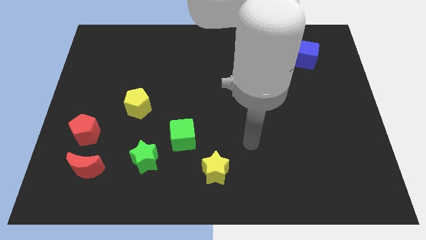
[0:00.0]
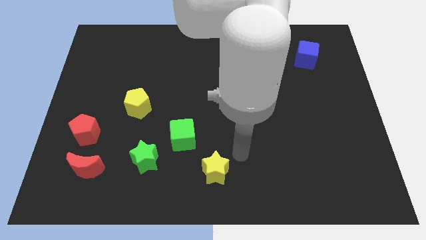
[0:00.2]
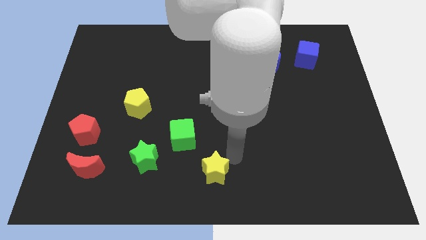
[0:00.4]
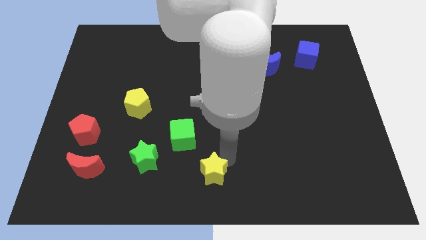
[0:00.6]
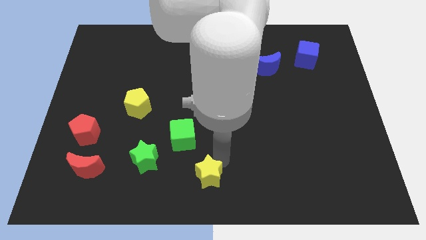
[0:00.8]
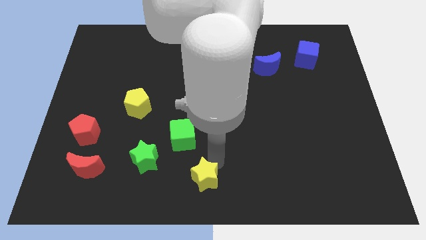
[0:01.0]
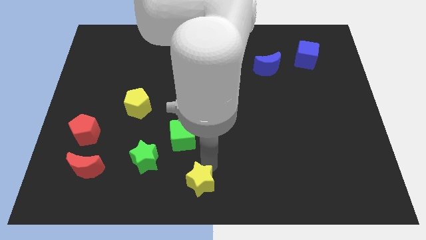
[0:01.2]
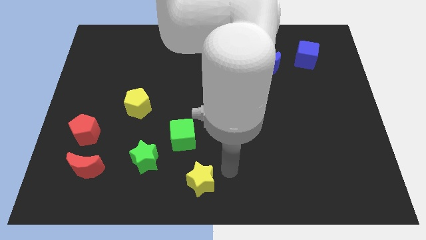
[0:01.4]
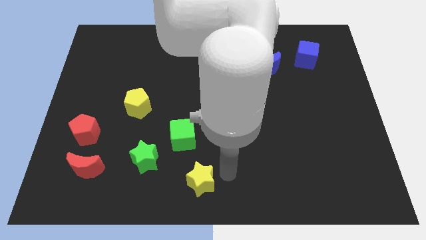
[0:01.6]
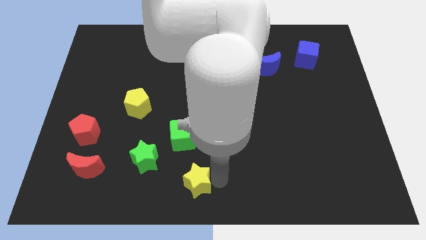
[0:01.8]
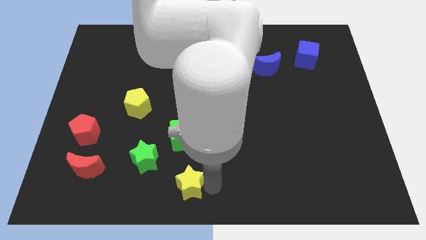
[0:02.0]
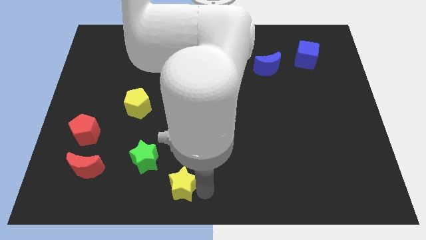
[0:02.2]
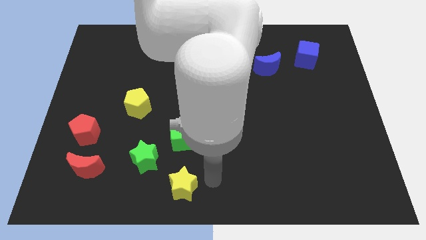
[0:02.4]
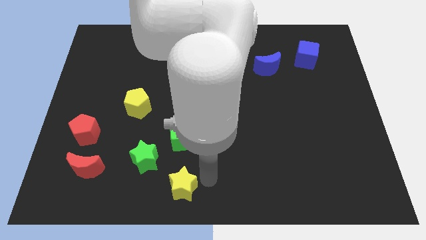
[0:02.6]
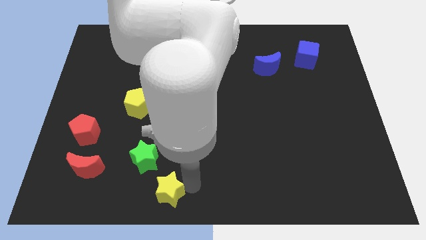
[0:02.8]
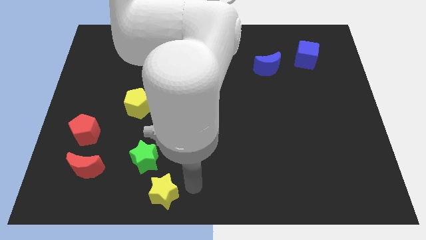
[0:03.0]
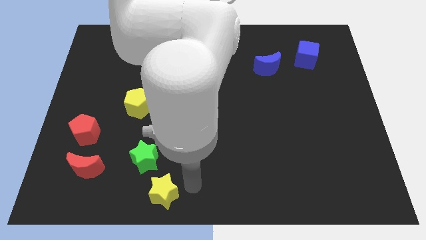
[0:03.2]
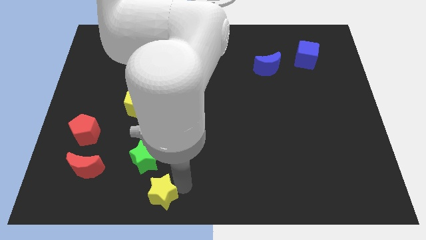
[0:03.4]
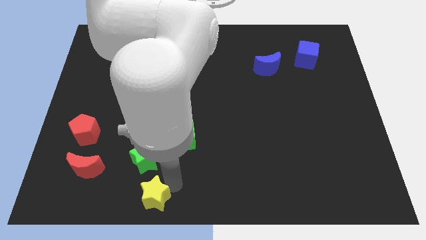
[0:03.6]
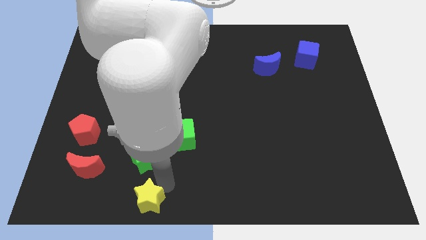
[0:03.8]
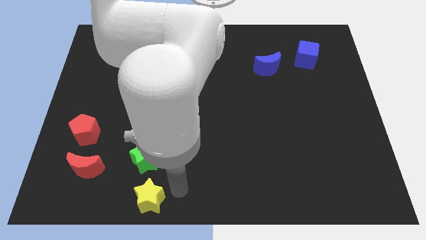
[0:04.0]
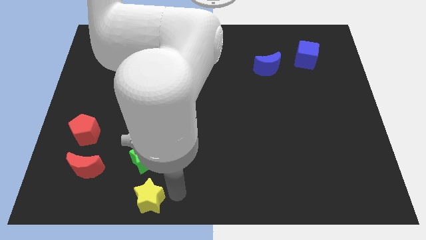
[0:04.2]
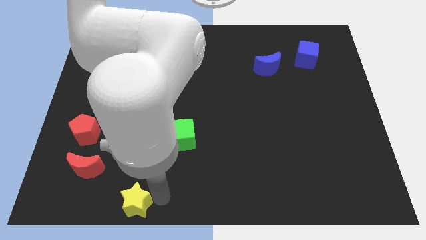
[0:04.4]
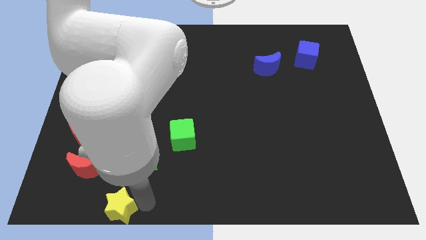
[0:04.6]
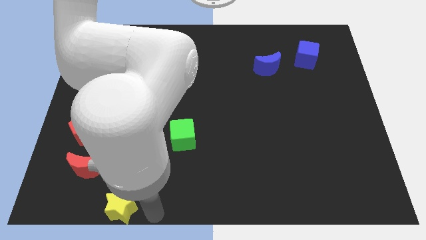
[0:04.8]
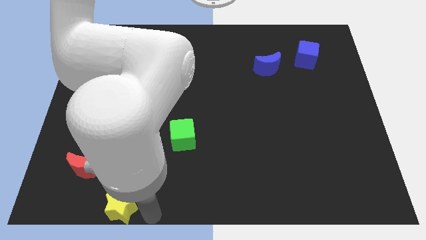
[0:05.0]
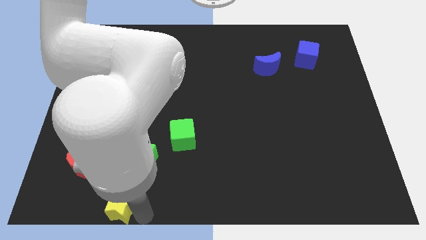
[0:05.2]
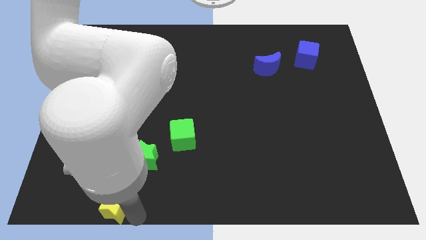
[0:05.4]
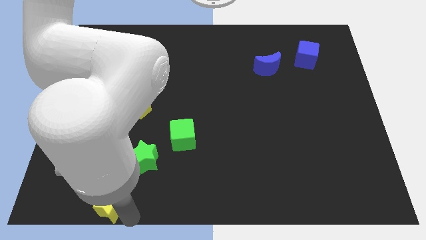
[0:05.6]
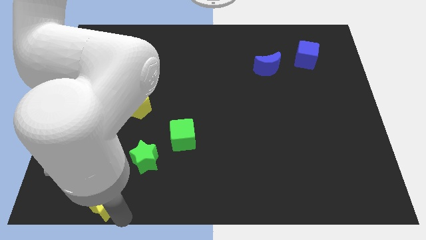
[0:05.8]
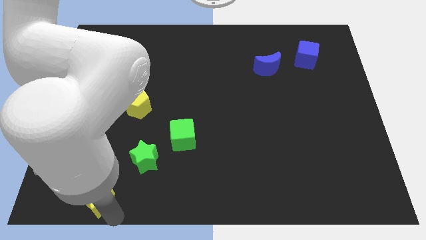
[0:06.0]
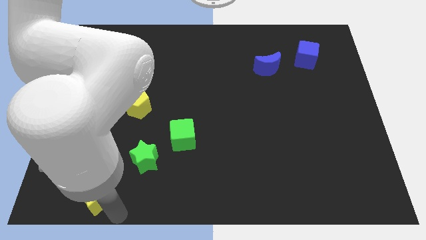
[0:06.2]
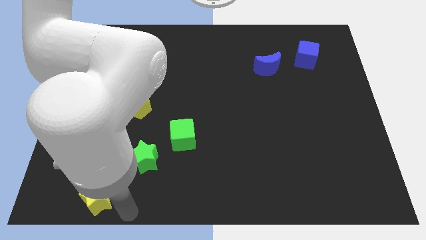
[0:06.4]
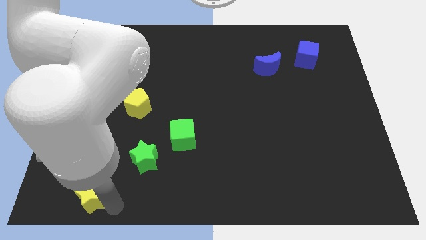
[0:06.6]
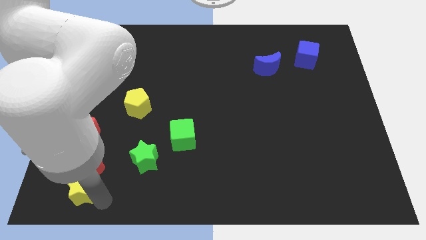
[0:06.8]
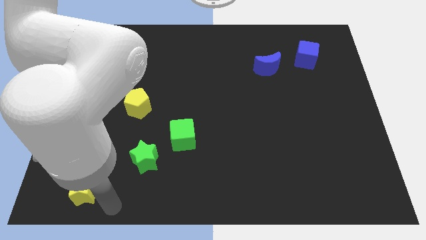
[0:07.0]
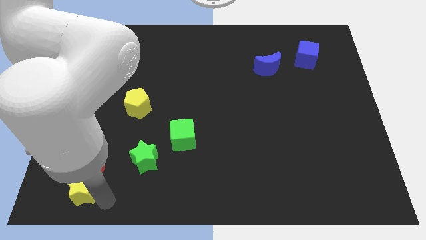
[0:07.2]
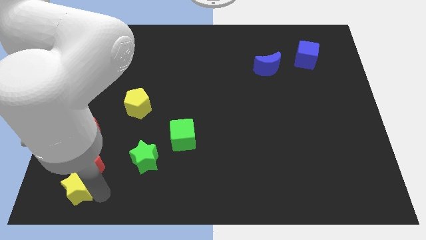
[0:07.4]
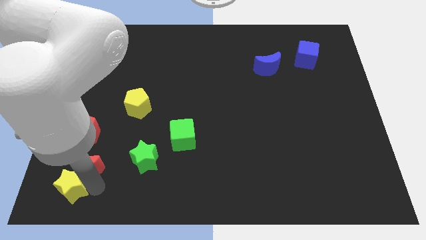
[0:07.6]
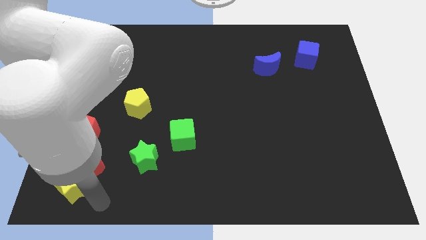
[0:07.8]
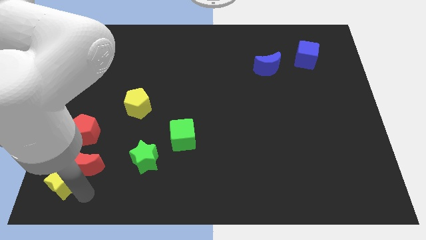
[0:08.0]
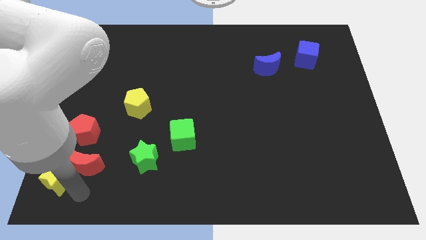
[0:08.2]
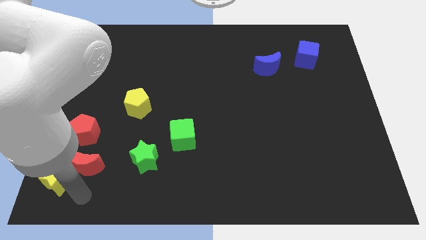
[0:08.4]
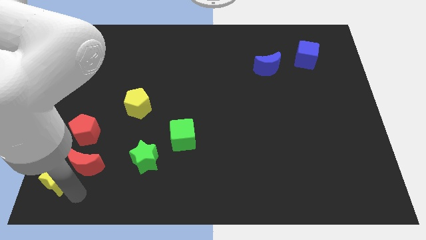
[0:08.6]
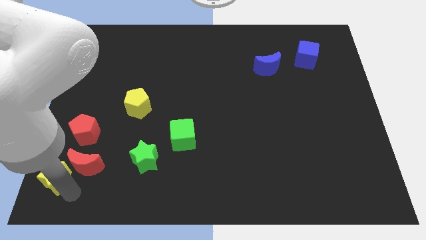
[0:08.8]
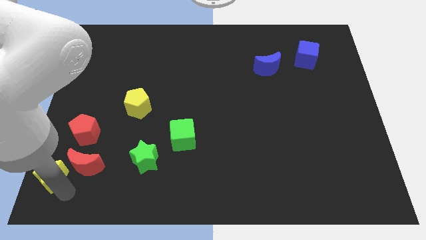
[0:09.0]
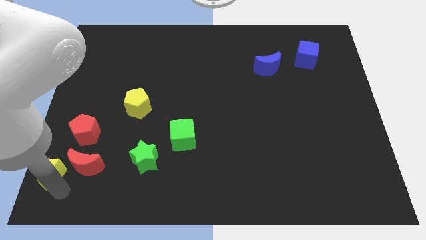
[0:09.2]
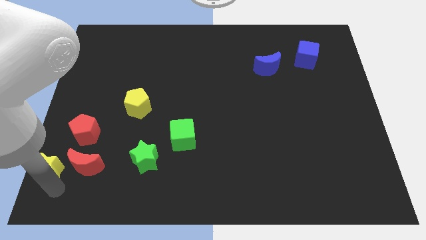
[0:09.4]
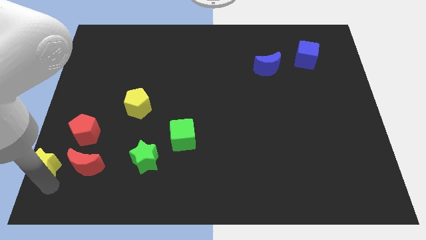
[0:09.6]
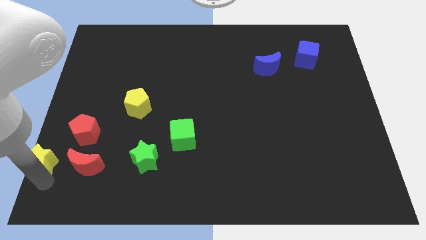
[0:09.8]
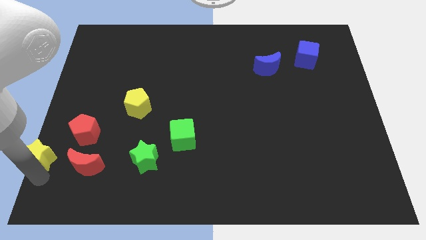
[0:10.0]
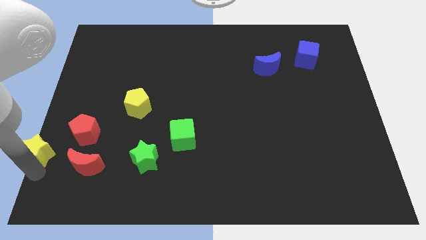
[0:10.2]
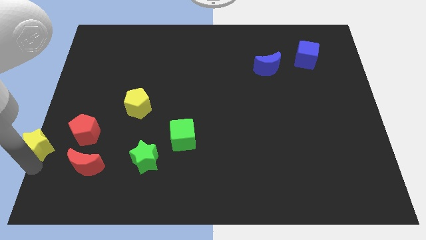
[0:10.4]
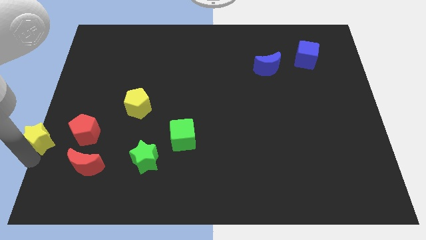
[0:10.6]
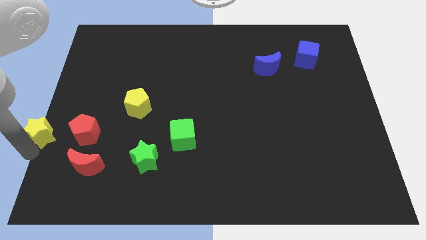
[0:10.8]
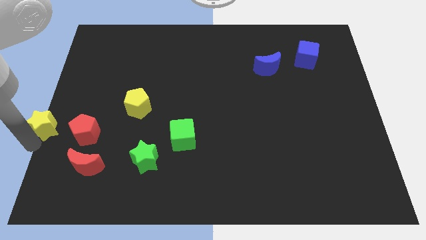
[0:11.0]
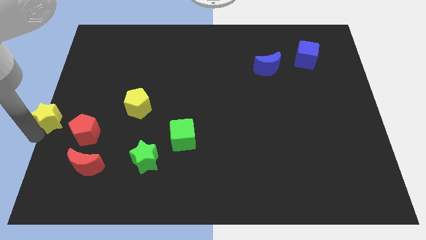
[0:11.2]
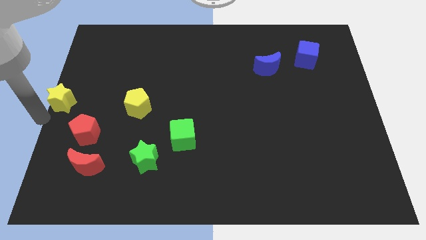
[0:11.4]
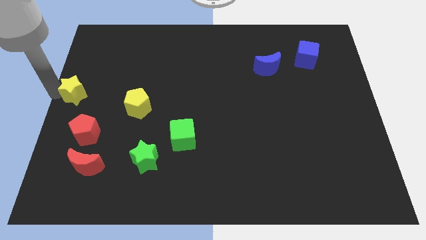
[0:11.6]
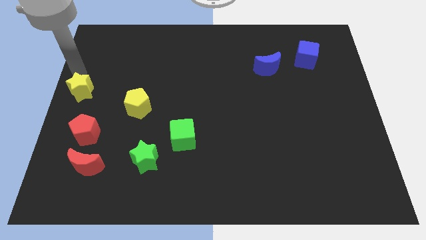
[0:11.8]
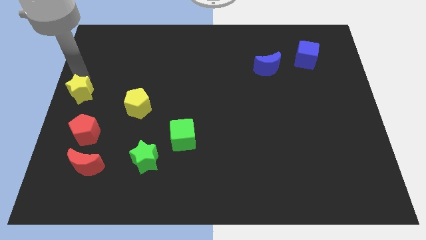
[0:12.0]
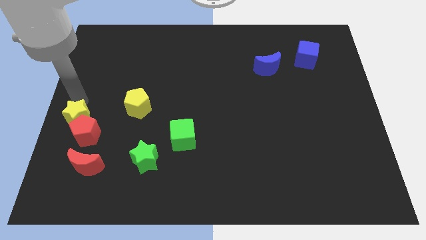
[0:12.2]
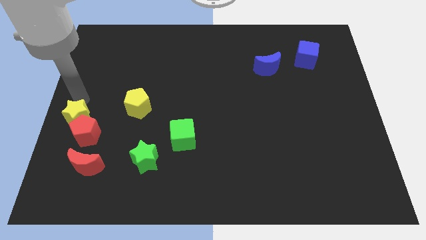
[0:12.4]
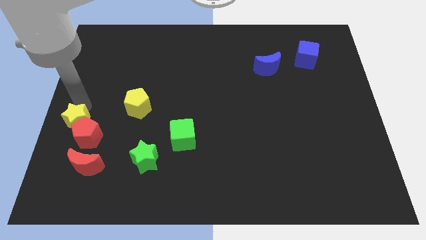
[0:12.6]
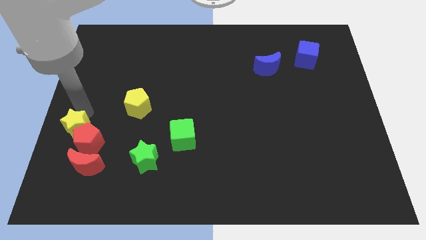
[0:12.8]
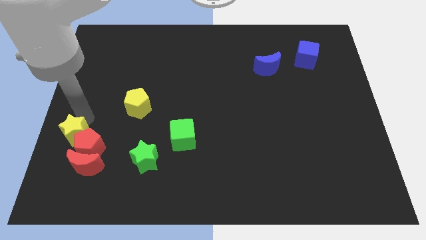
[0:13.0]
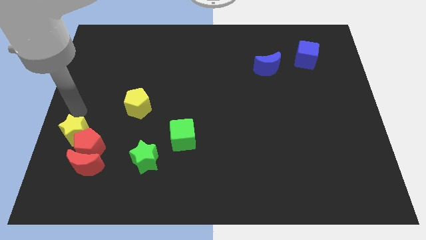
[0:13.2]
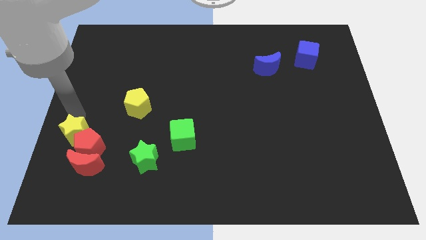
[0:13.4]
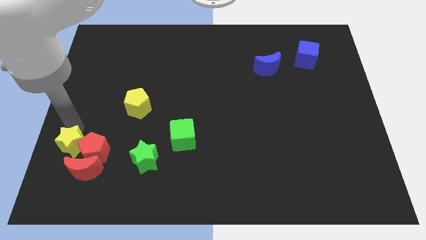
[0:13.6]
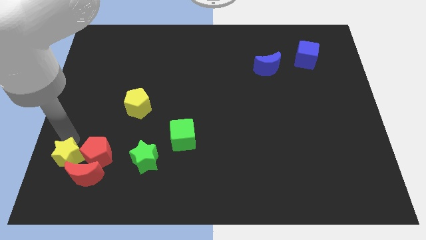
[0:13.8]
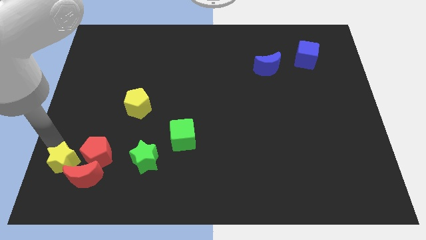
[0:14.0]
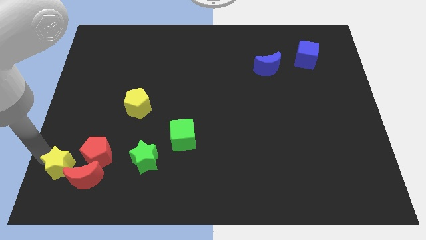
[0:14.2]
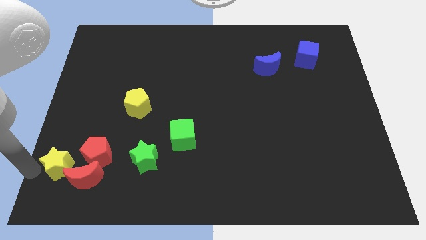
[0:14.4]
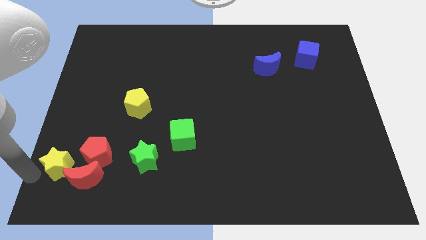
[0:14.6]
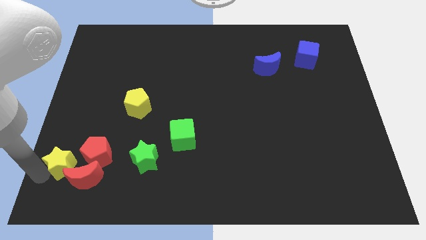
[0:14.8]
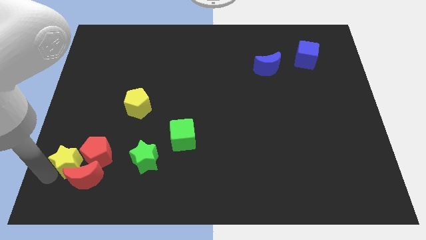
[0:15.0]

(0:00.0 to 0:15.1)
slide the yellow star left of the green star
